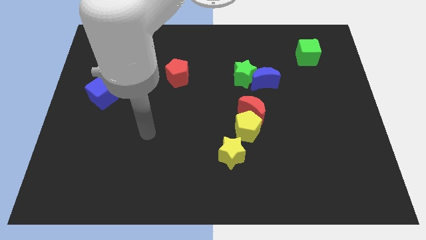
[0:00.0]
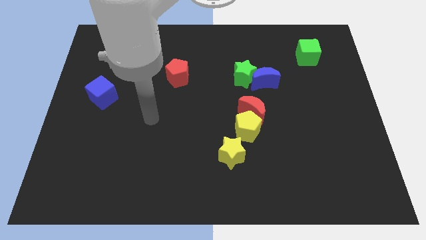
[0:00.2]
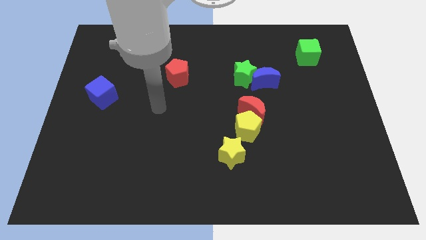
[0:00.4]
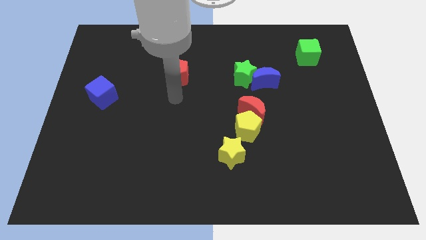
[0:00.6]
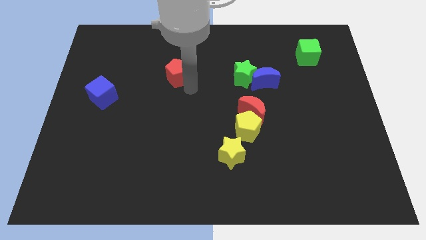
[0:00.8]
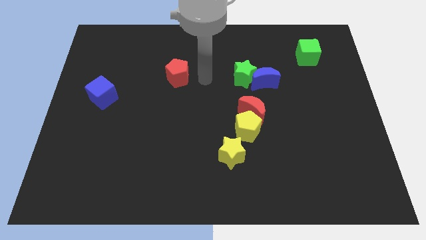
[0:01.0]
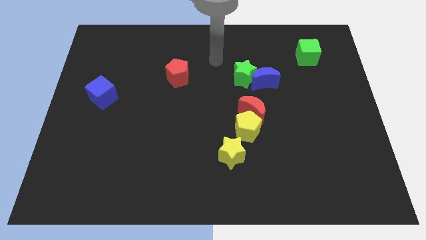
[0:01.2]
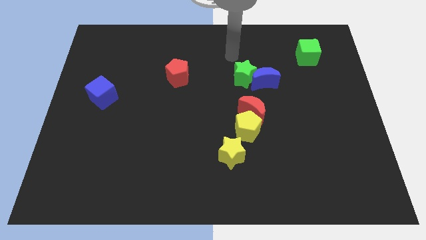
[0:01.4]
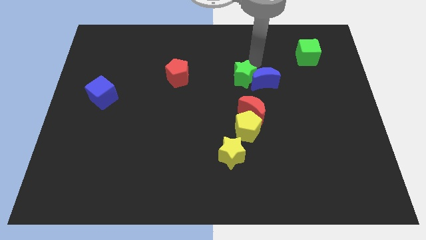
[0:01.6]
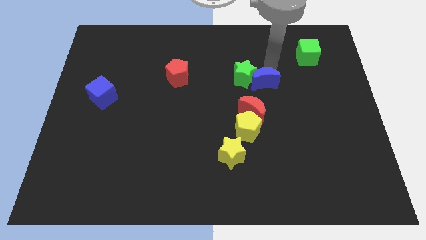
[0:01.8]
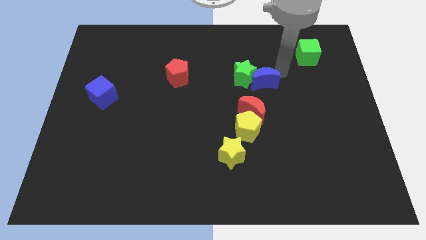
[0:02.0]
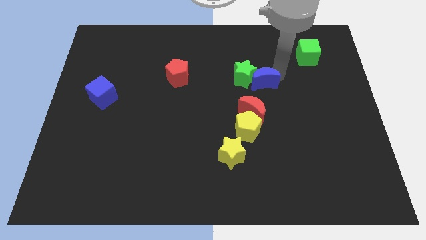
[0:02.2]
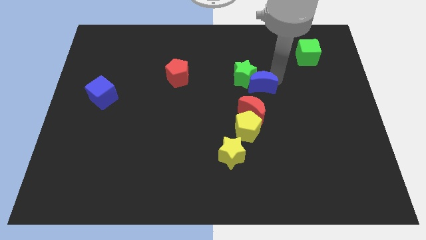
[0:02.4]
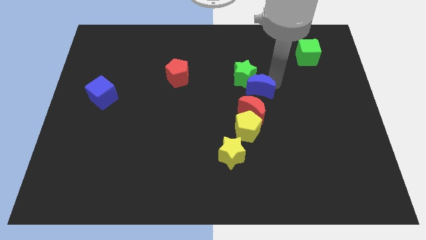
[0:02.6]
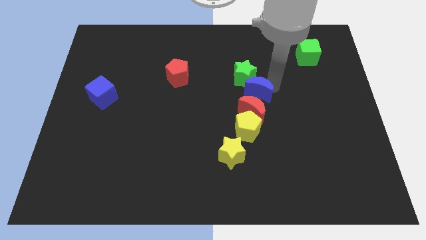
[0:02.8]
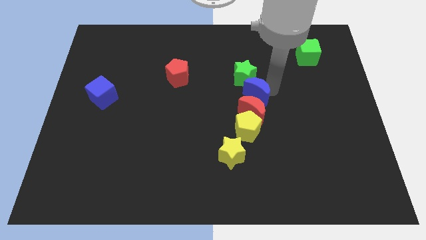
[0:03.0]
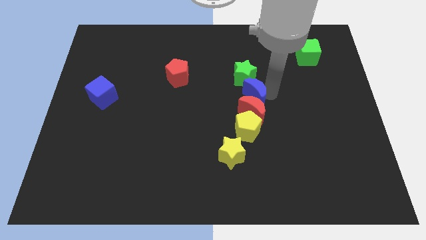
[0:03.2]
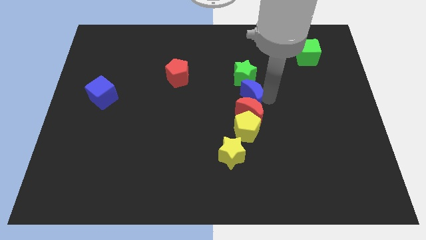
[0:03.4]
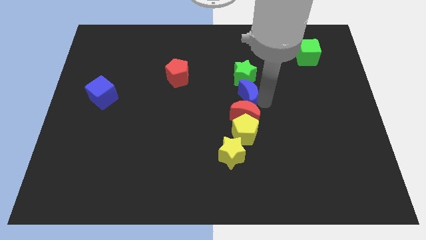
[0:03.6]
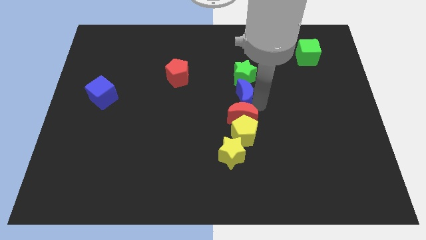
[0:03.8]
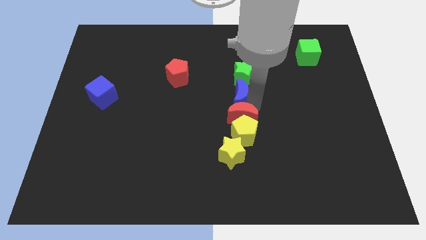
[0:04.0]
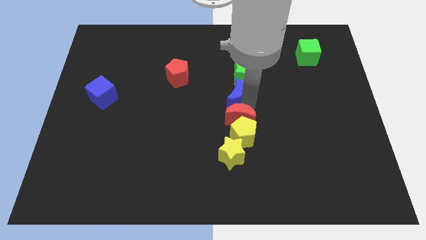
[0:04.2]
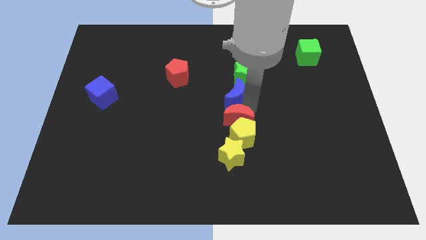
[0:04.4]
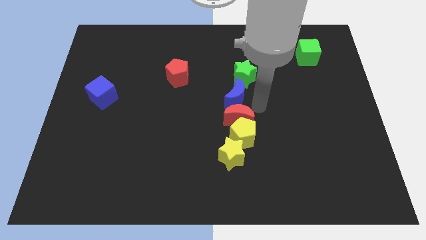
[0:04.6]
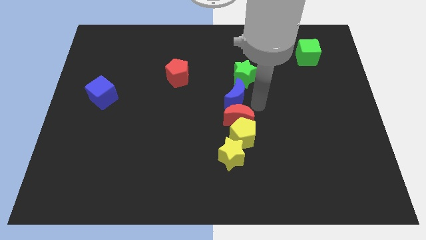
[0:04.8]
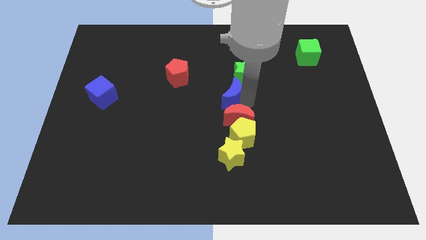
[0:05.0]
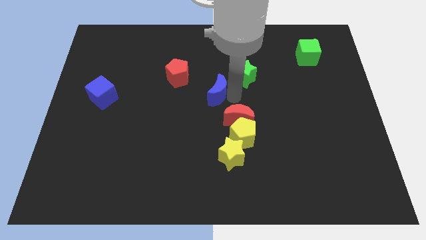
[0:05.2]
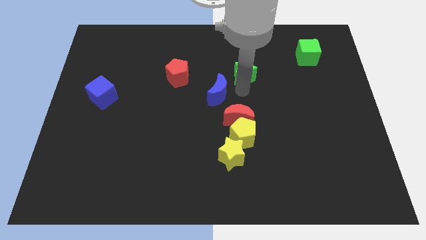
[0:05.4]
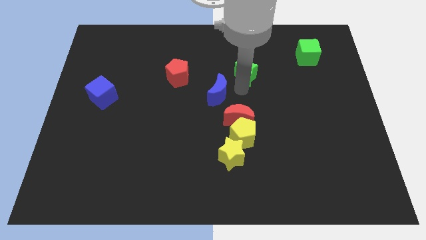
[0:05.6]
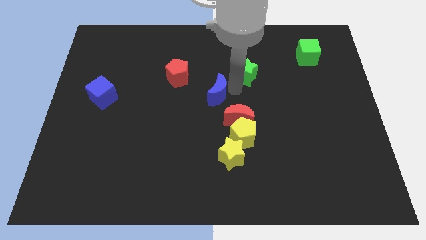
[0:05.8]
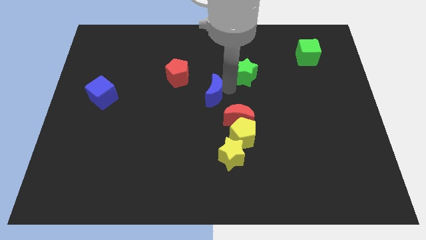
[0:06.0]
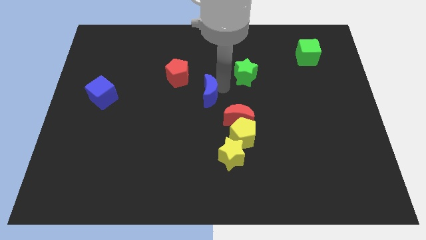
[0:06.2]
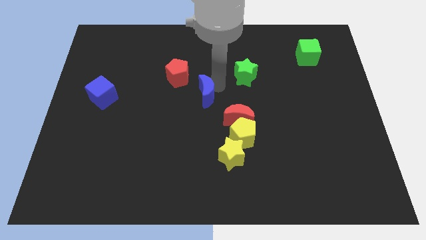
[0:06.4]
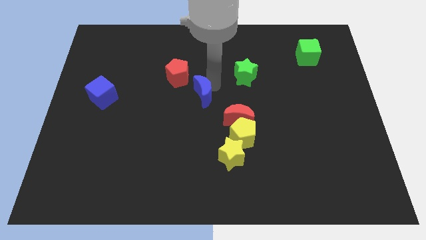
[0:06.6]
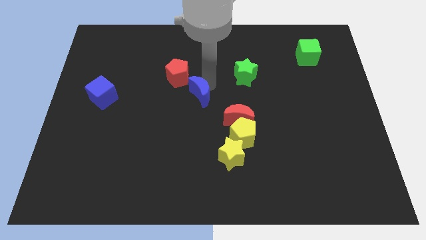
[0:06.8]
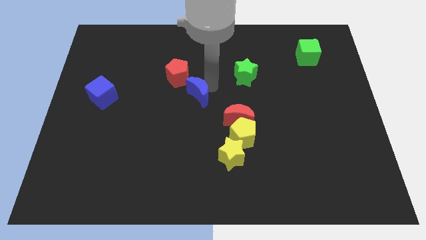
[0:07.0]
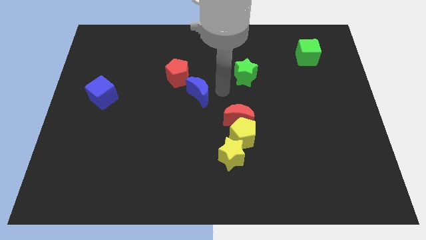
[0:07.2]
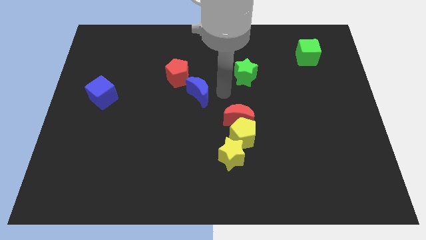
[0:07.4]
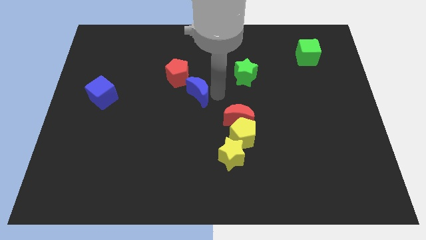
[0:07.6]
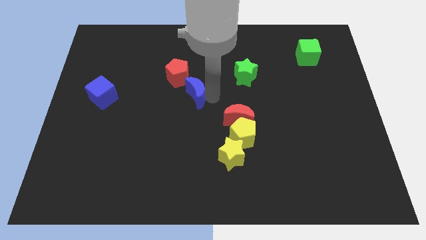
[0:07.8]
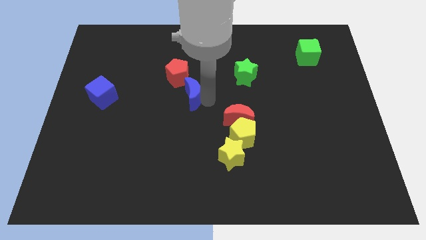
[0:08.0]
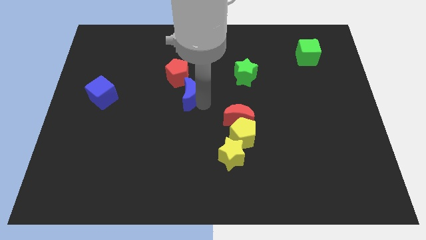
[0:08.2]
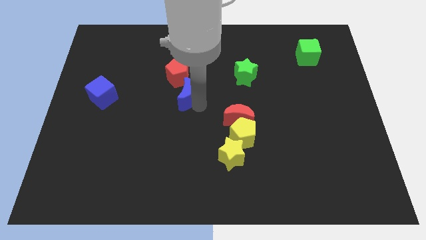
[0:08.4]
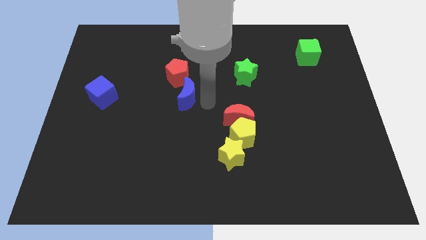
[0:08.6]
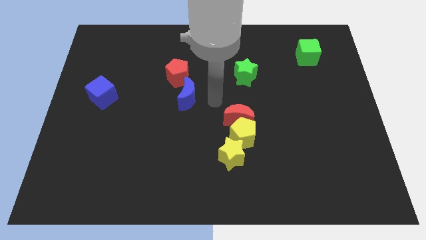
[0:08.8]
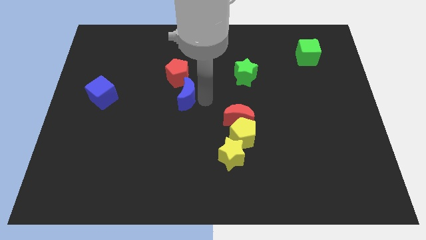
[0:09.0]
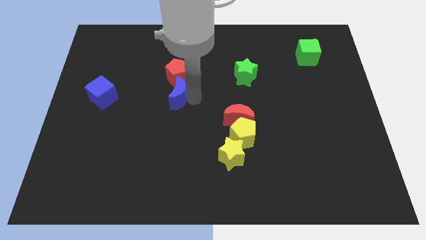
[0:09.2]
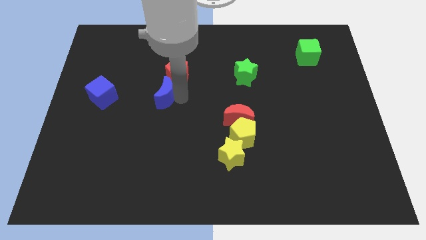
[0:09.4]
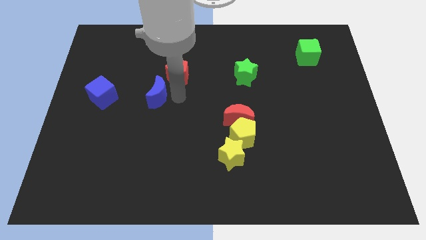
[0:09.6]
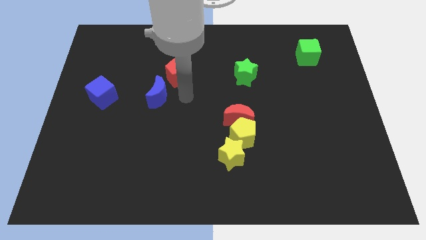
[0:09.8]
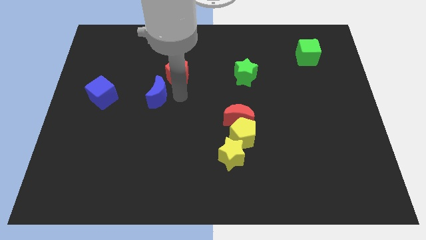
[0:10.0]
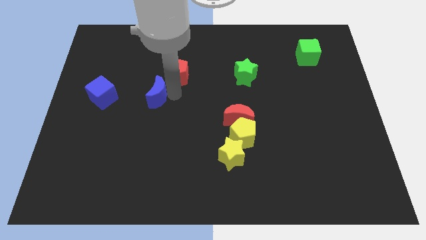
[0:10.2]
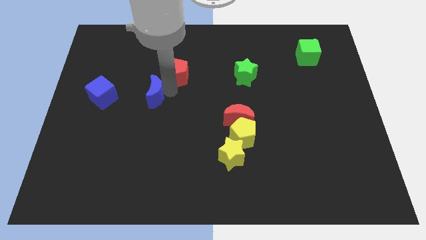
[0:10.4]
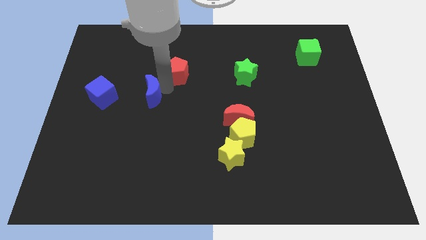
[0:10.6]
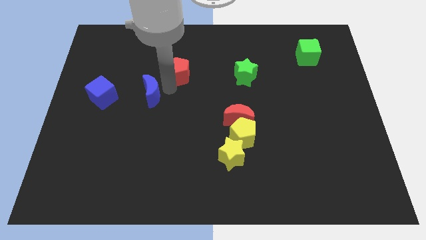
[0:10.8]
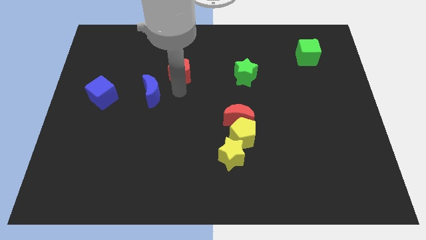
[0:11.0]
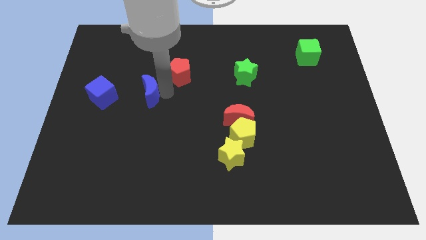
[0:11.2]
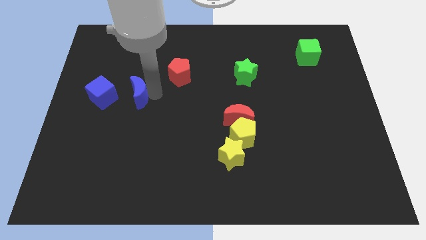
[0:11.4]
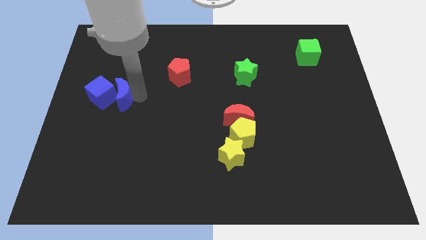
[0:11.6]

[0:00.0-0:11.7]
put the blue moon towards the blue cube

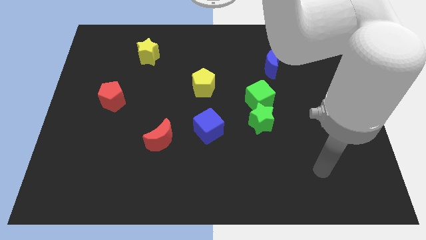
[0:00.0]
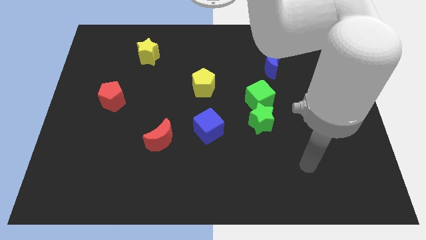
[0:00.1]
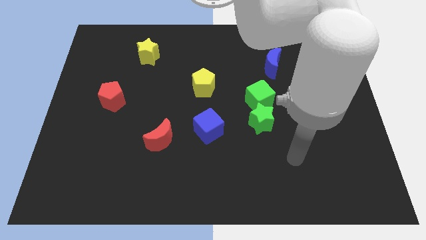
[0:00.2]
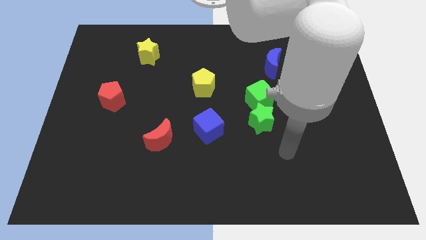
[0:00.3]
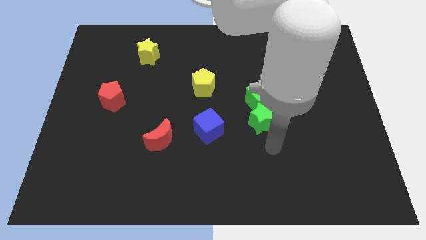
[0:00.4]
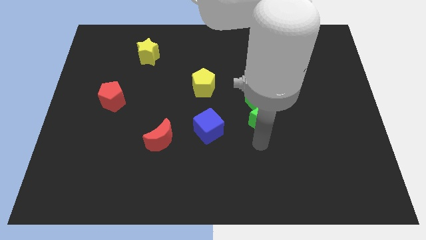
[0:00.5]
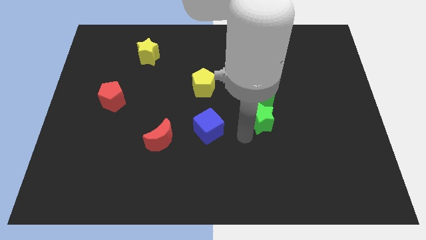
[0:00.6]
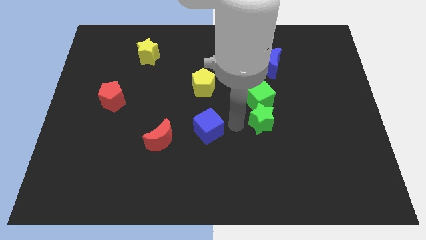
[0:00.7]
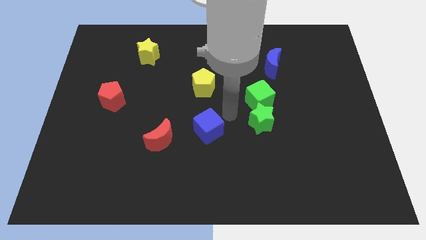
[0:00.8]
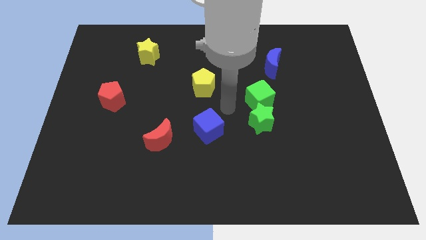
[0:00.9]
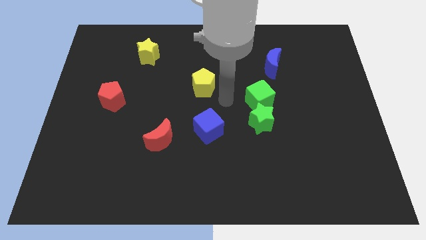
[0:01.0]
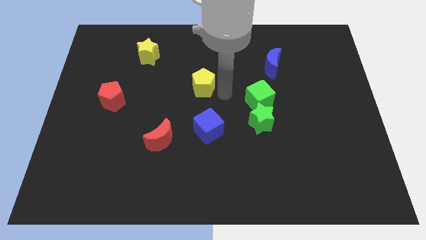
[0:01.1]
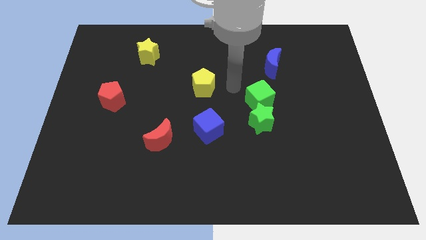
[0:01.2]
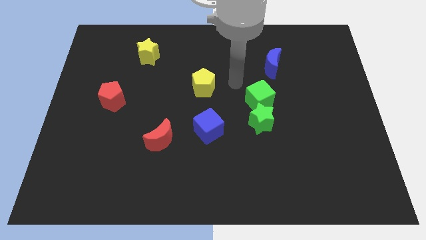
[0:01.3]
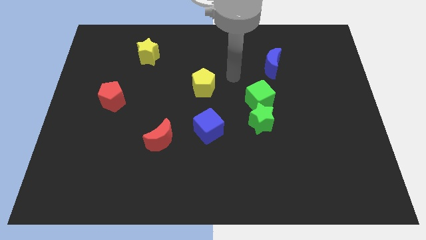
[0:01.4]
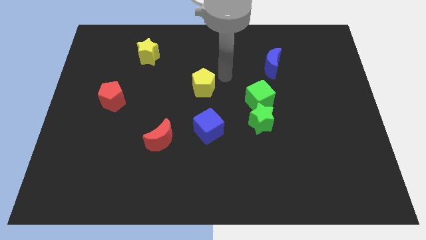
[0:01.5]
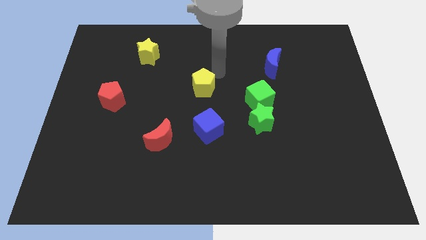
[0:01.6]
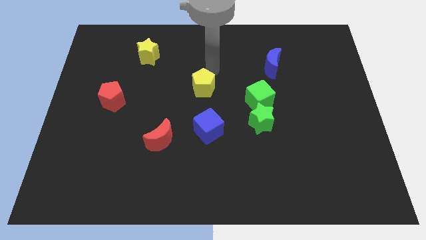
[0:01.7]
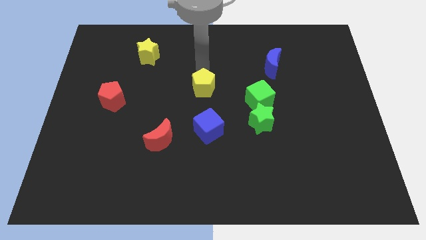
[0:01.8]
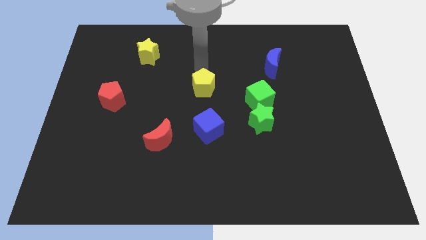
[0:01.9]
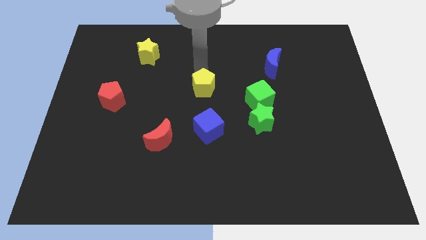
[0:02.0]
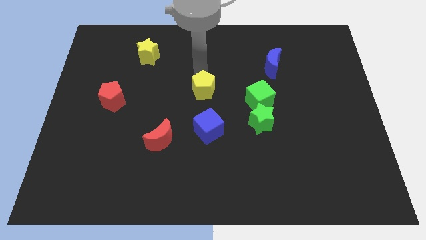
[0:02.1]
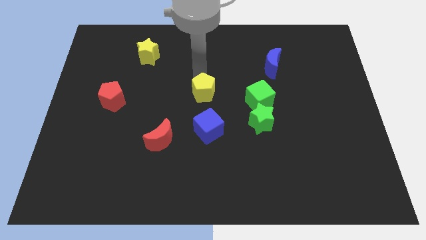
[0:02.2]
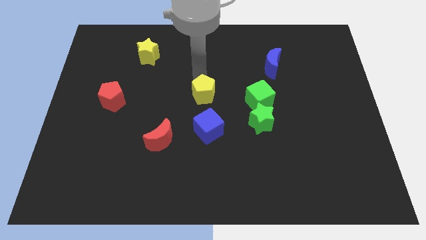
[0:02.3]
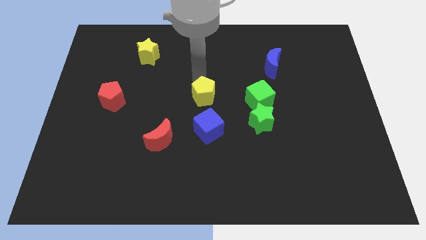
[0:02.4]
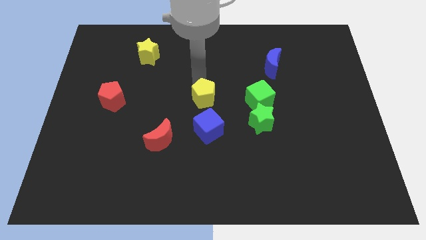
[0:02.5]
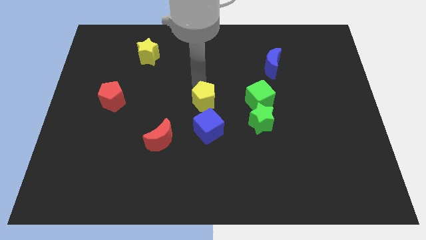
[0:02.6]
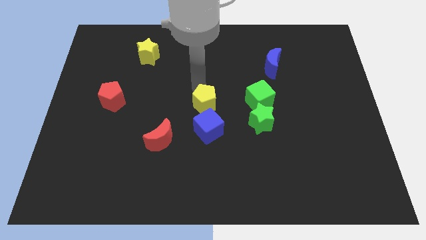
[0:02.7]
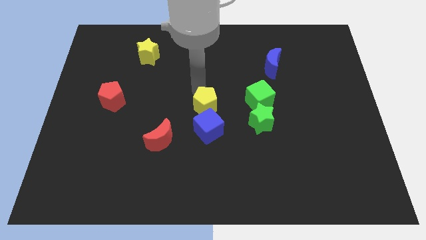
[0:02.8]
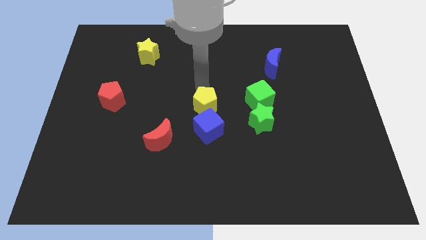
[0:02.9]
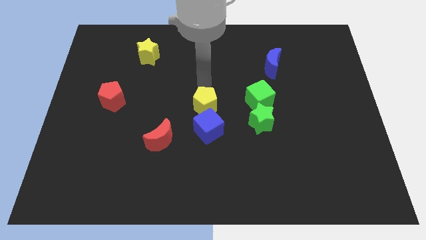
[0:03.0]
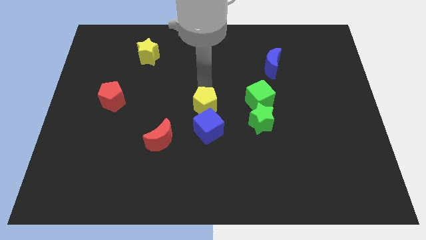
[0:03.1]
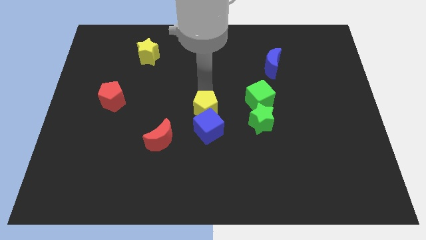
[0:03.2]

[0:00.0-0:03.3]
move the yellow pentagon to the blue cube
